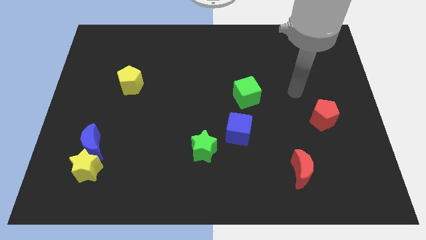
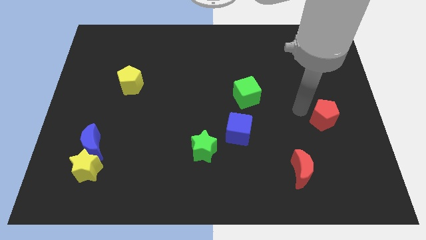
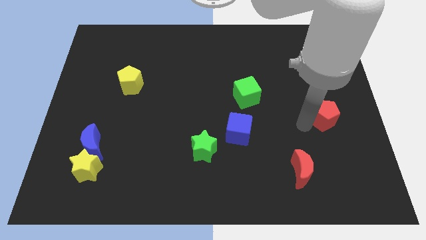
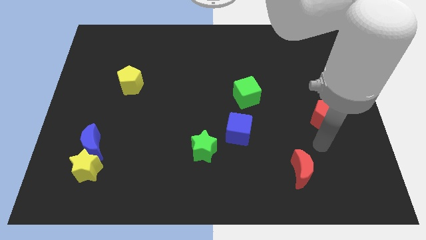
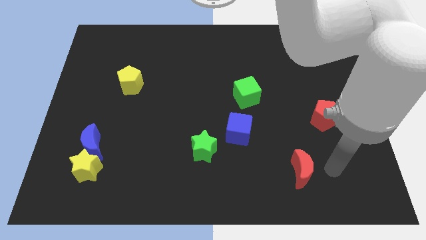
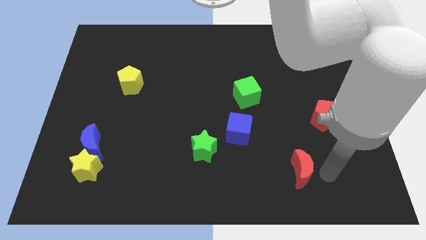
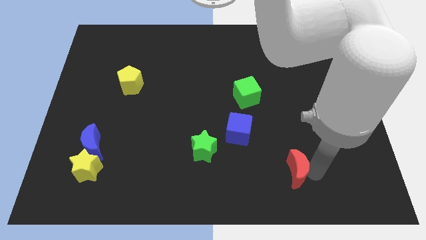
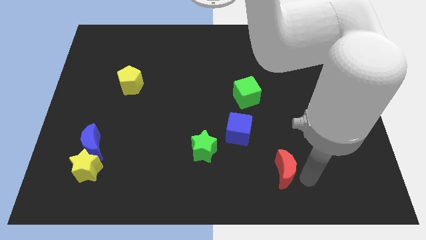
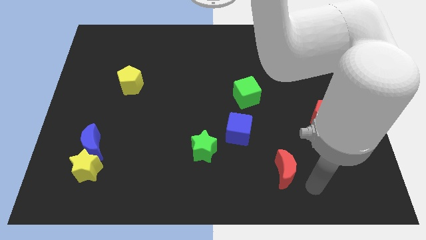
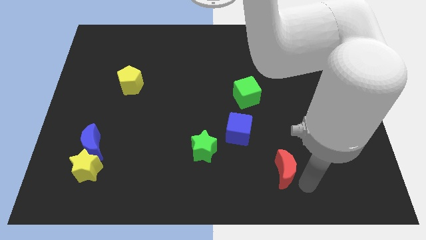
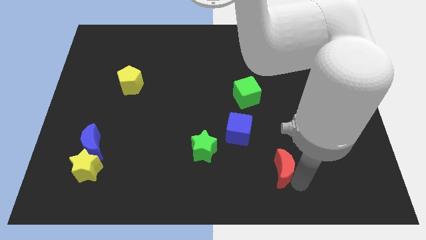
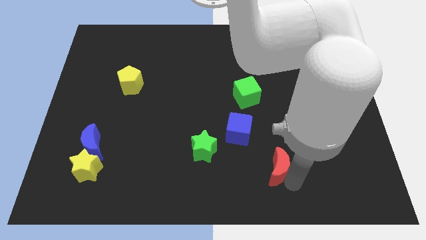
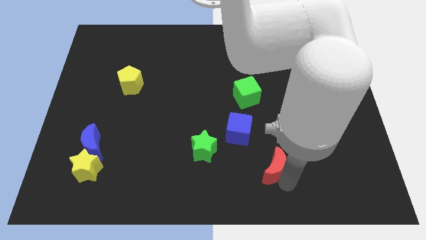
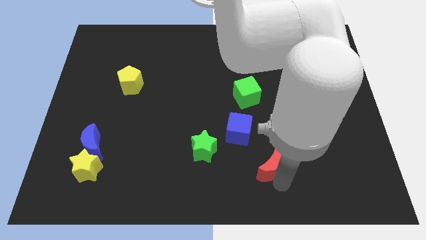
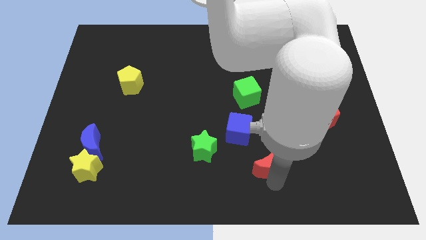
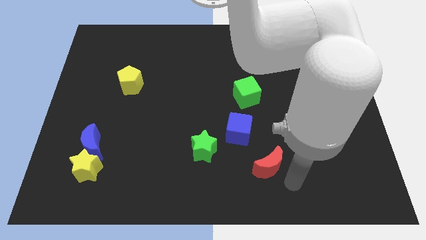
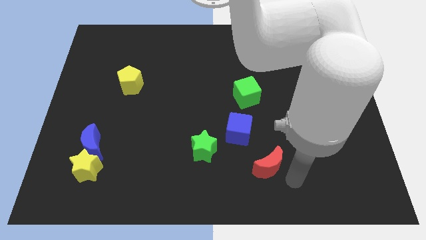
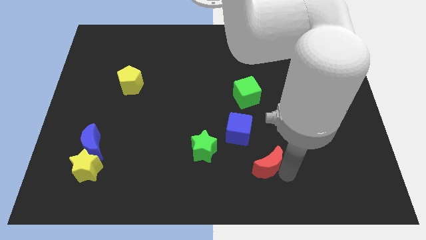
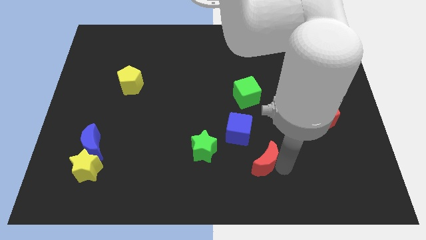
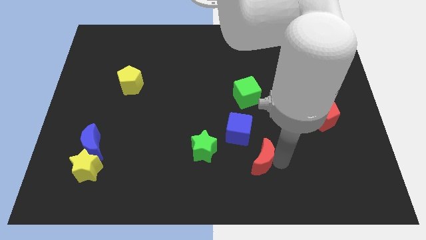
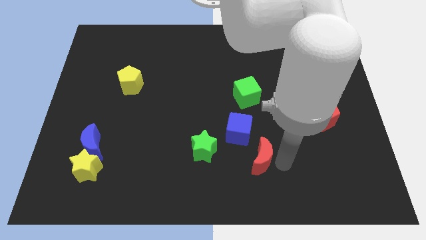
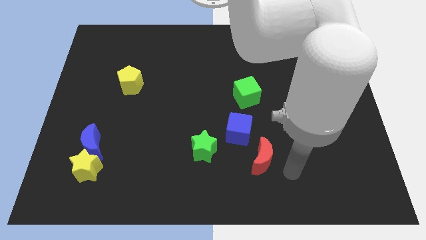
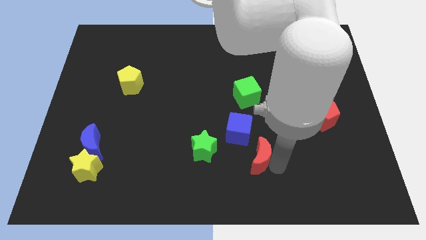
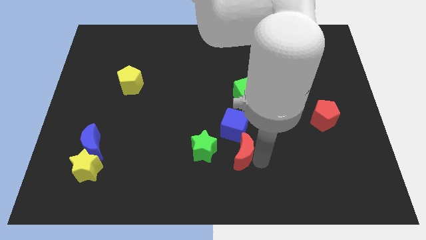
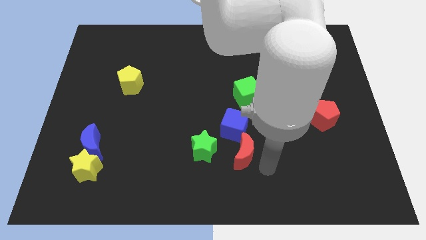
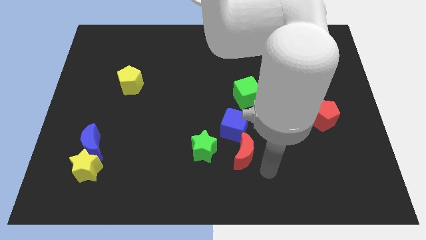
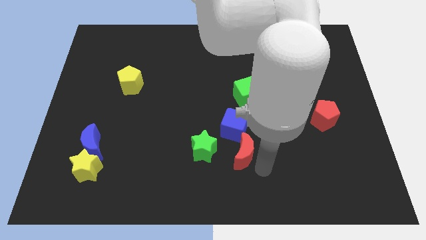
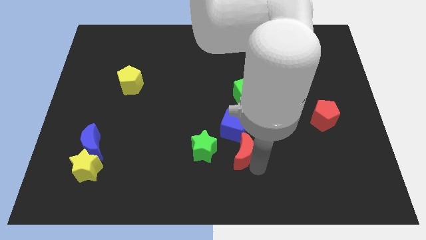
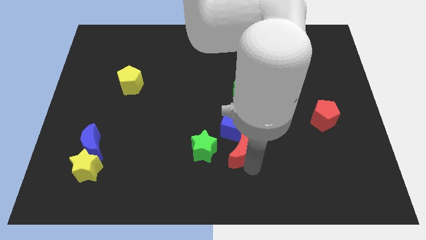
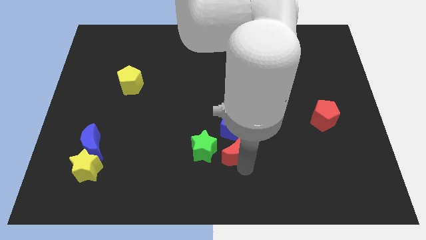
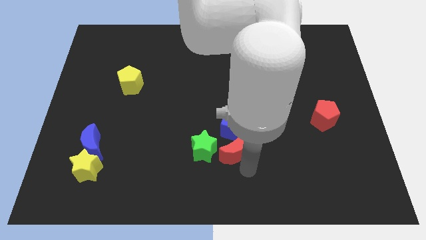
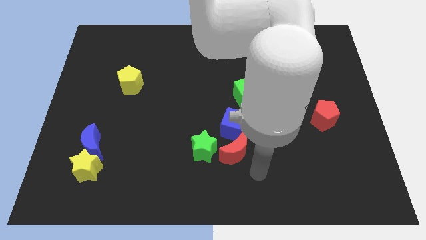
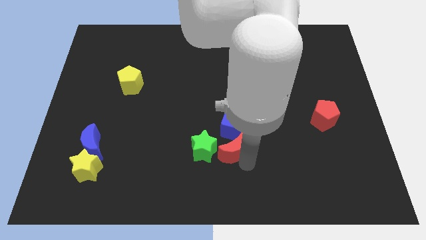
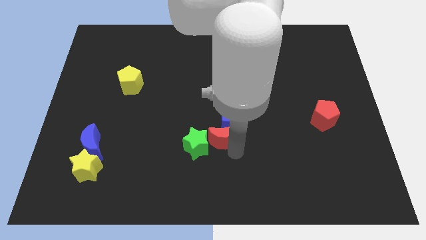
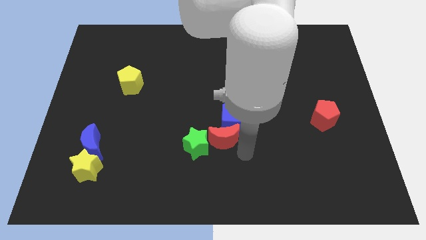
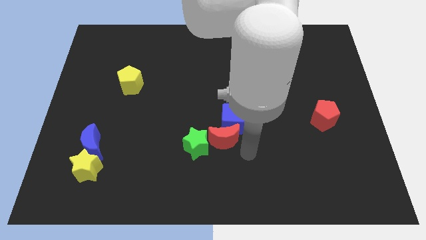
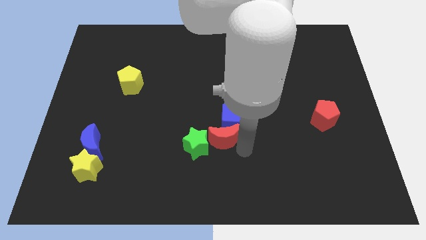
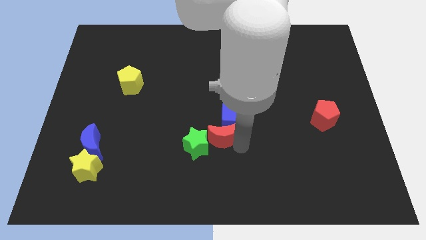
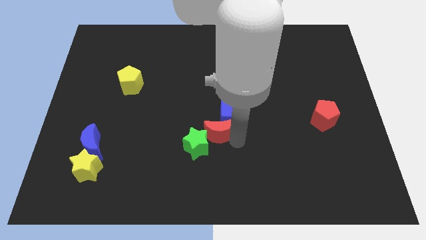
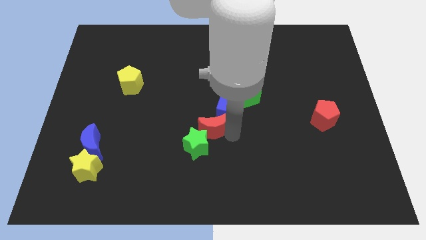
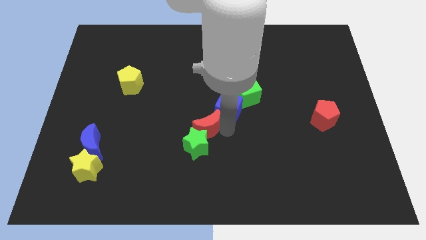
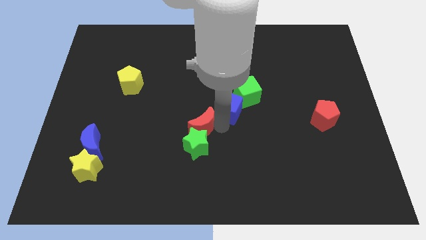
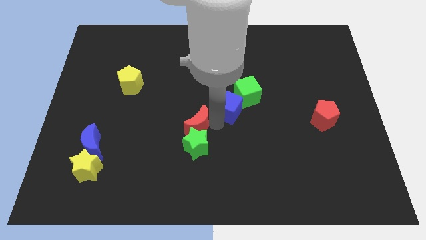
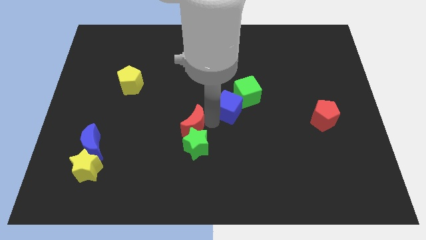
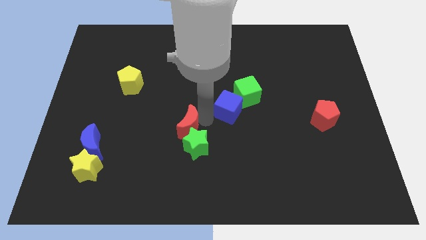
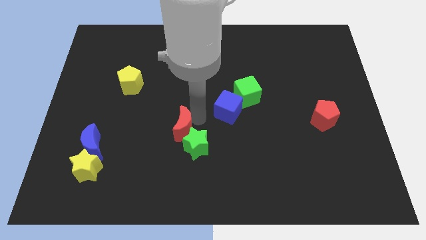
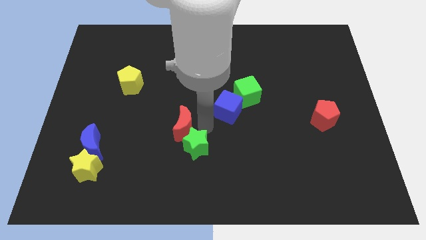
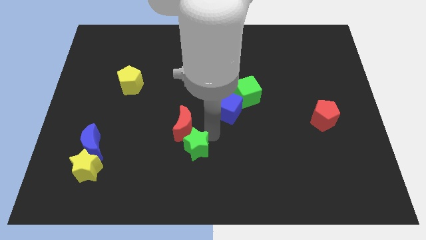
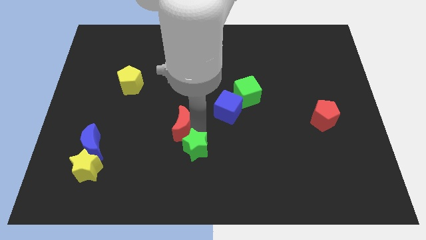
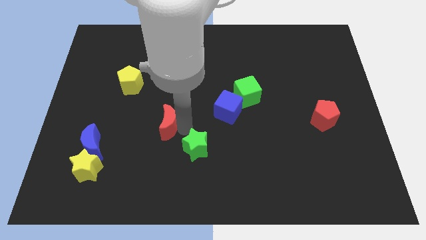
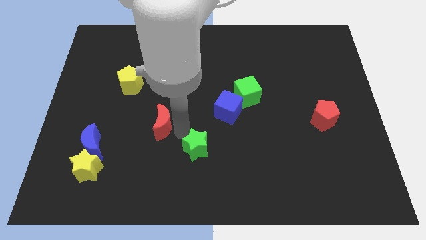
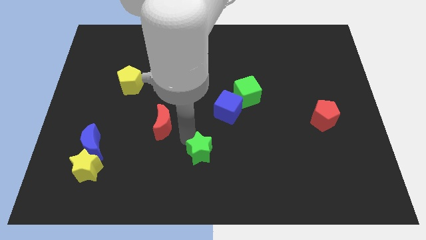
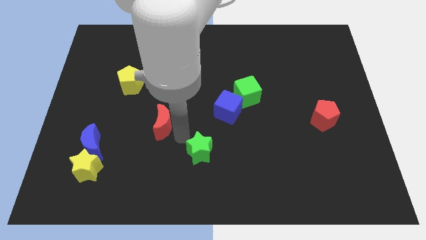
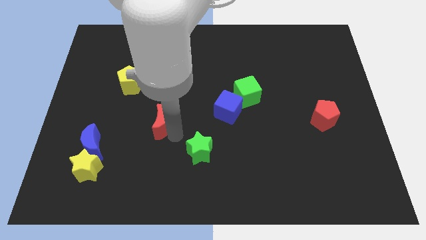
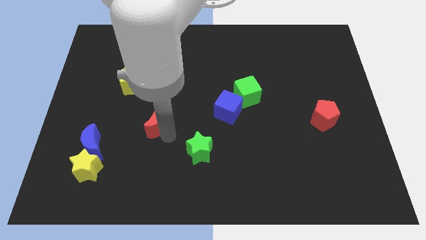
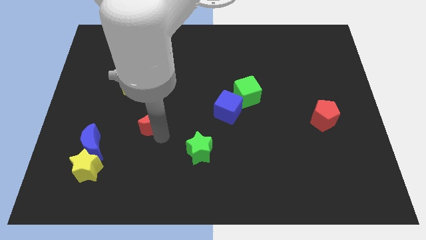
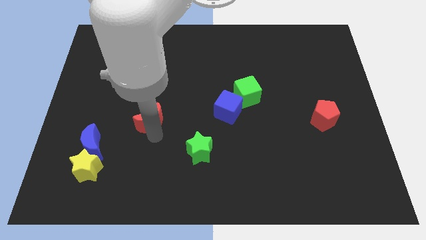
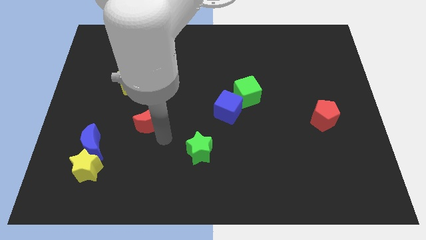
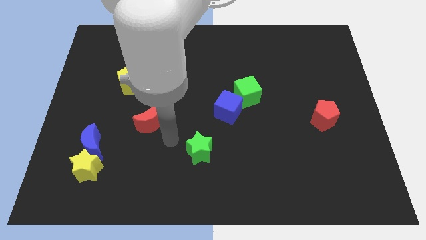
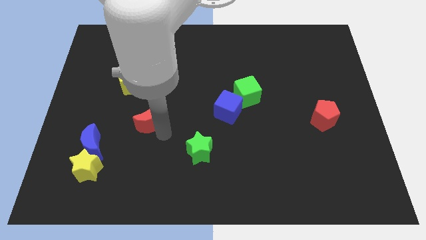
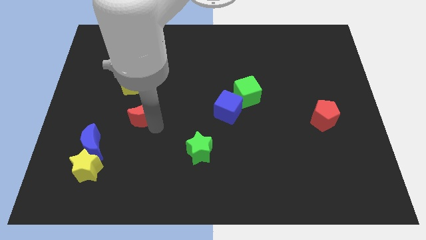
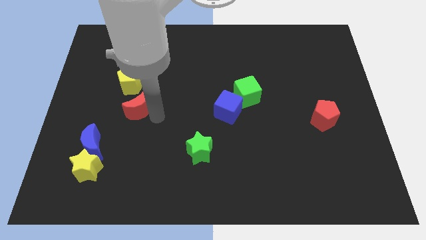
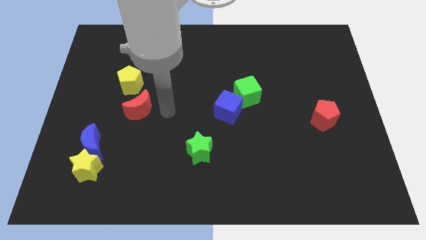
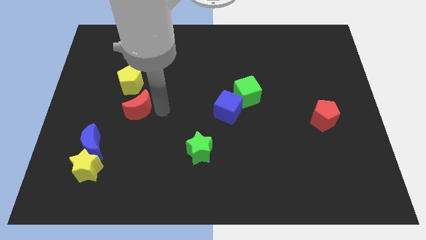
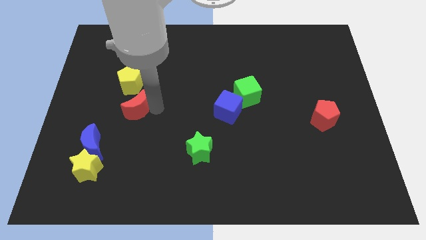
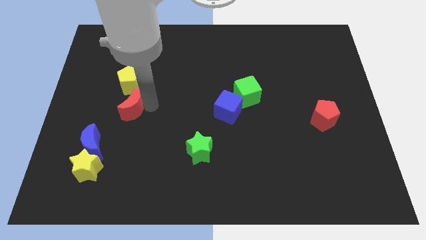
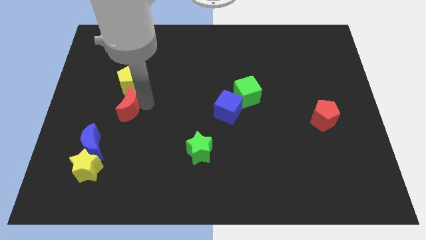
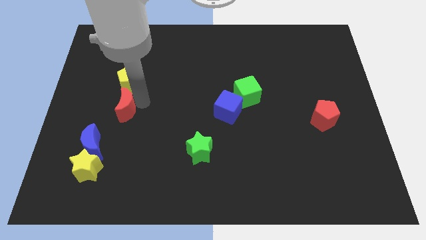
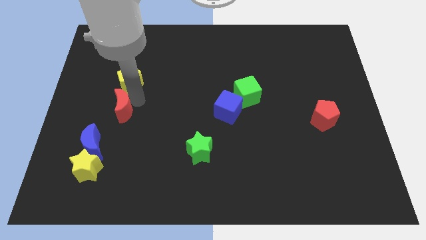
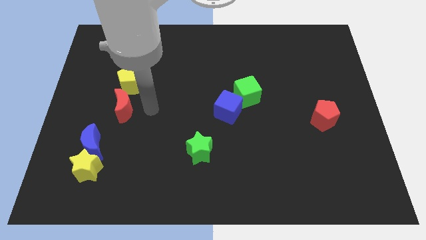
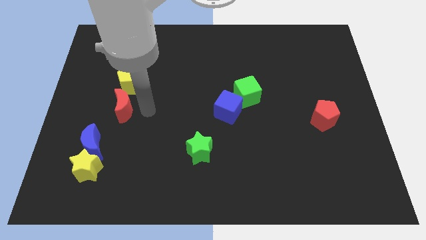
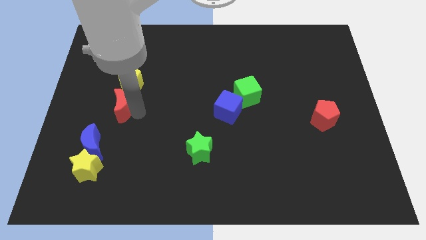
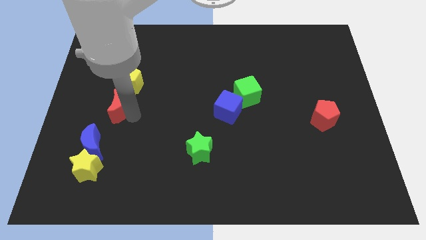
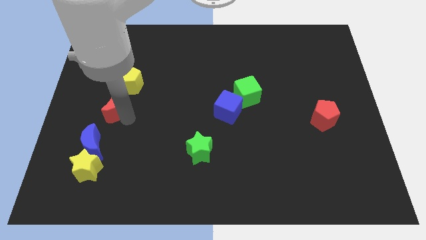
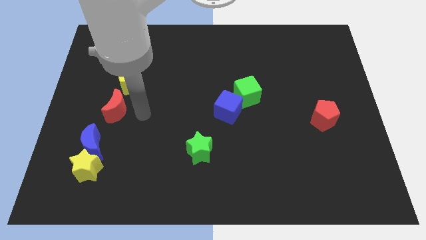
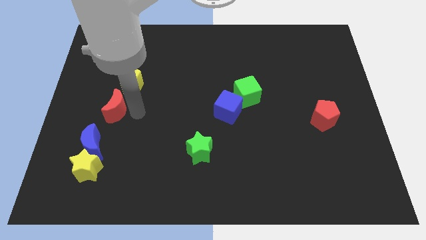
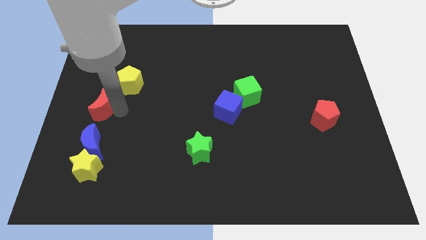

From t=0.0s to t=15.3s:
put the red moon to the left side of the board
